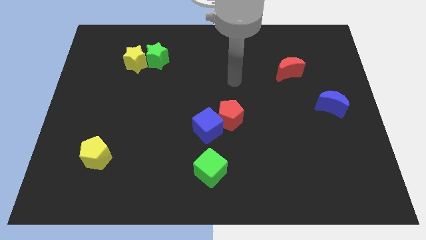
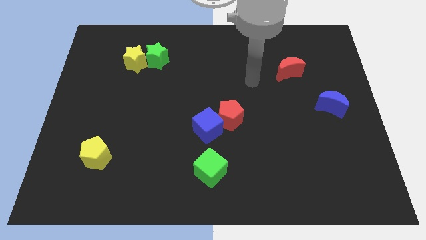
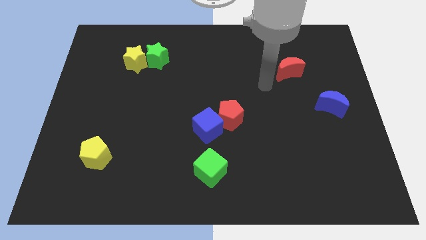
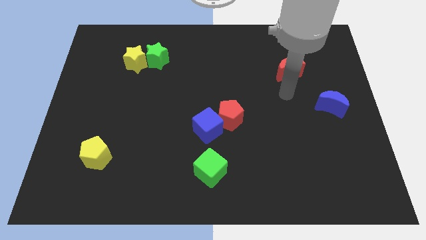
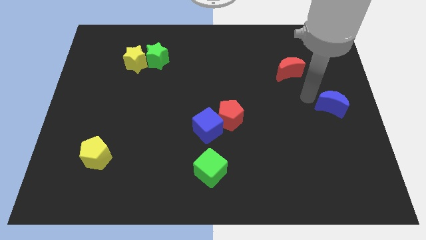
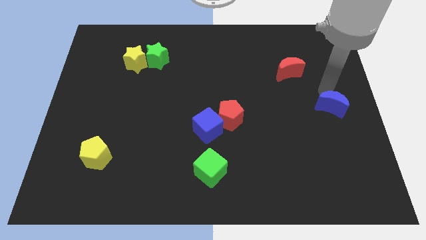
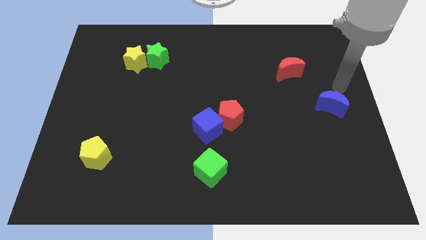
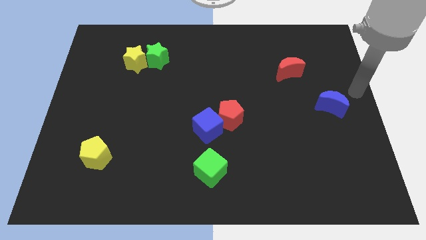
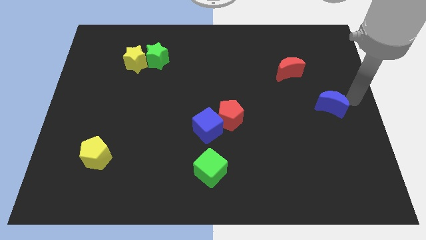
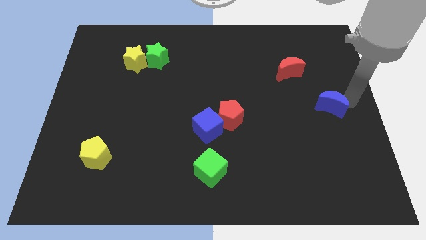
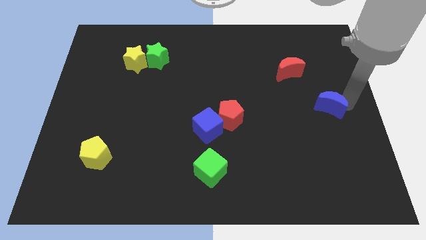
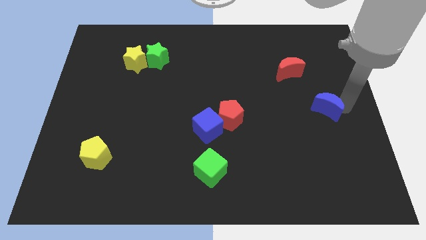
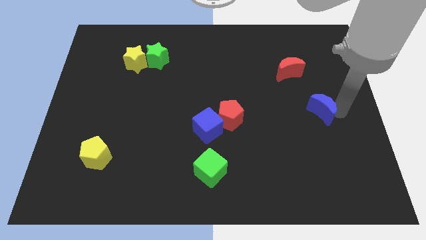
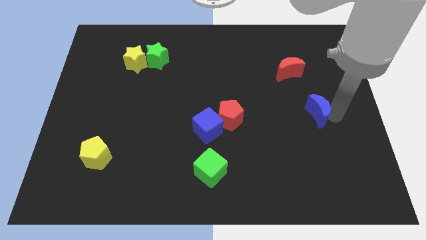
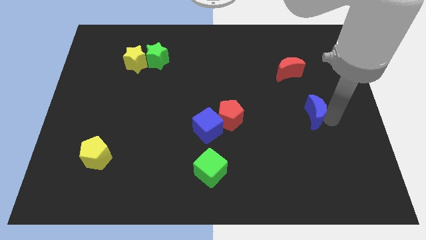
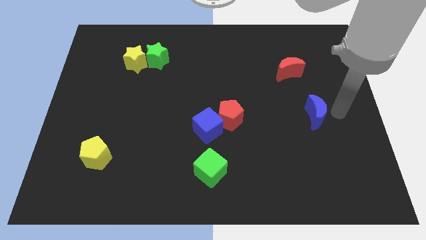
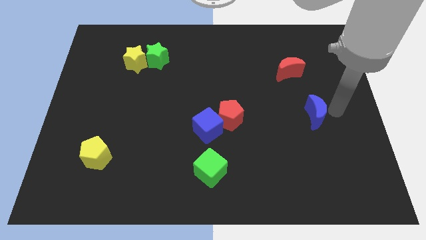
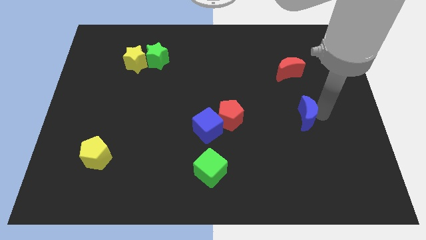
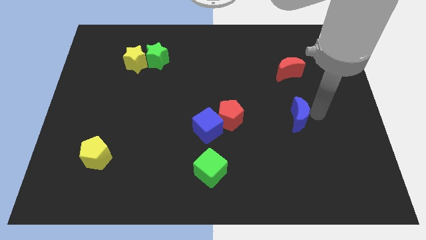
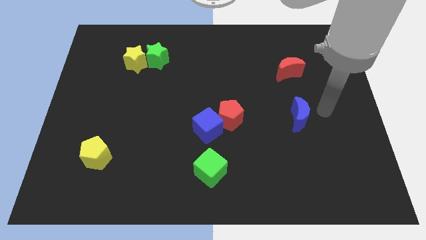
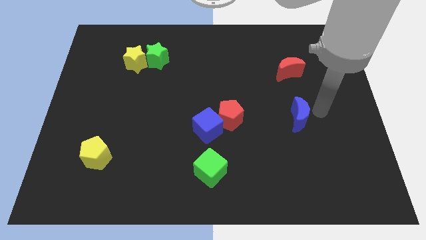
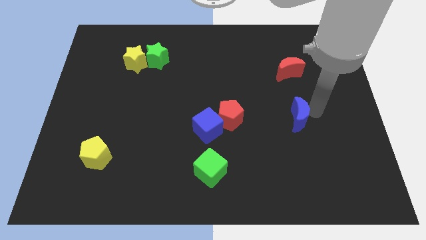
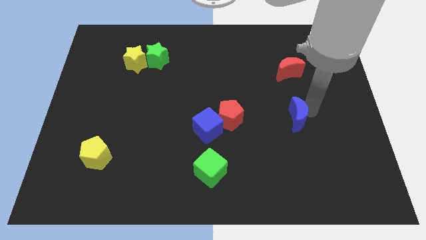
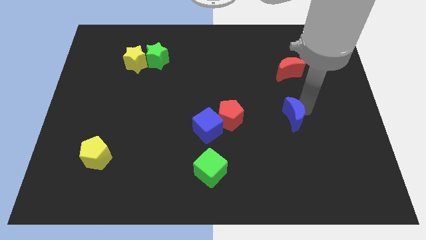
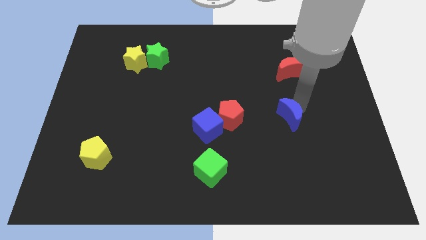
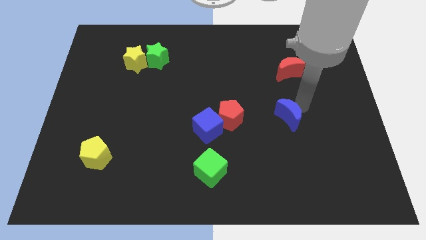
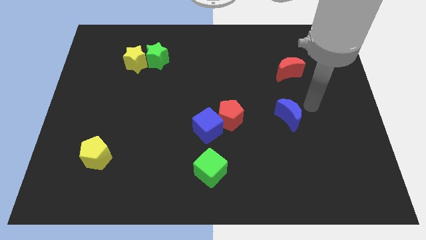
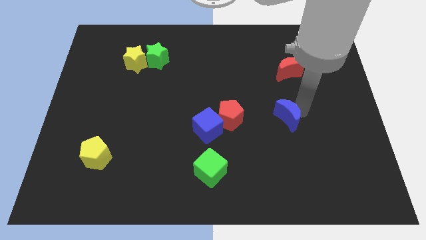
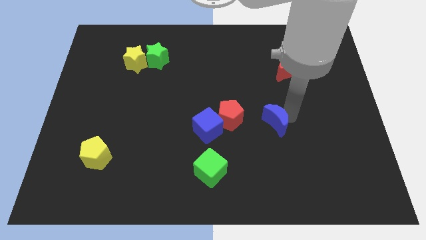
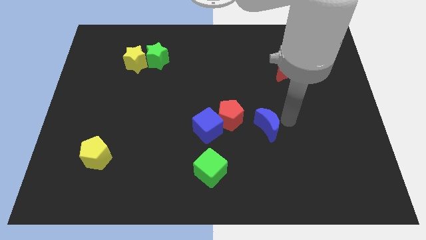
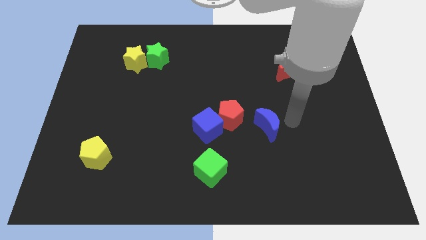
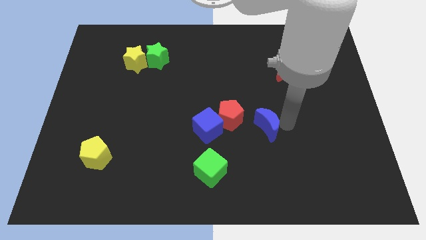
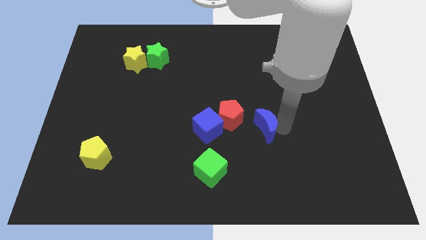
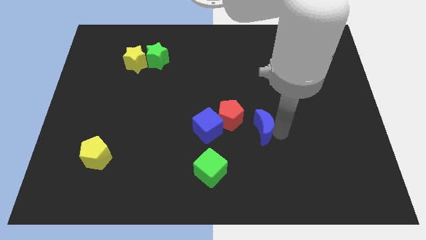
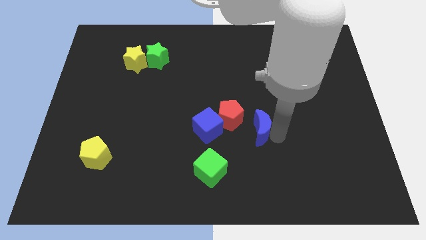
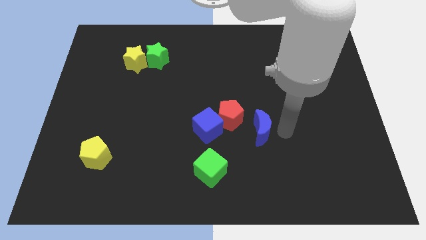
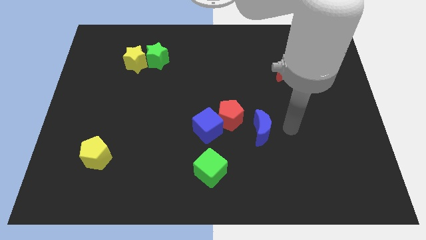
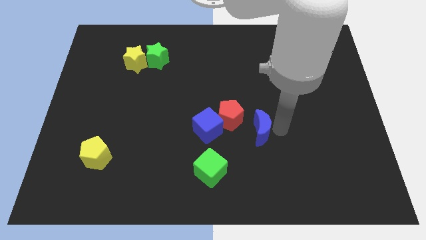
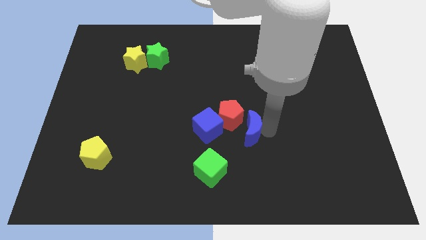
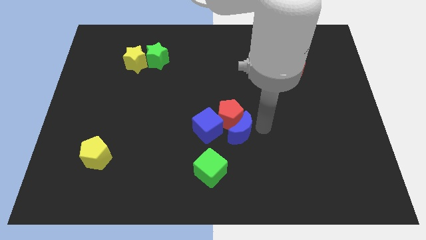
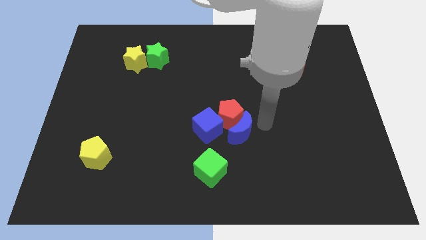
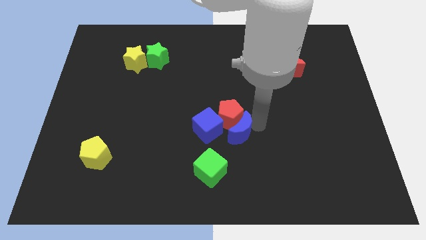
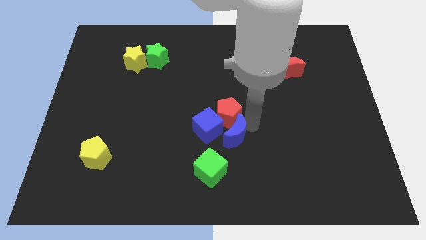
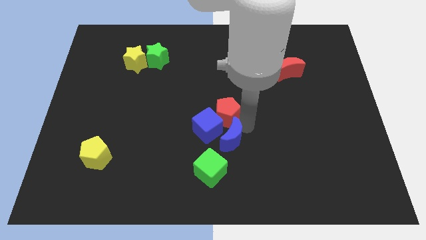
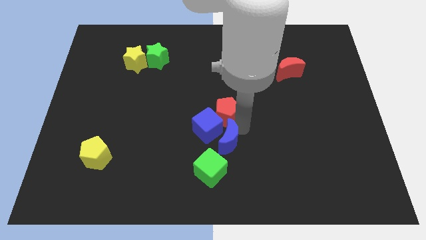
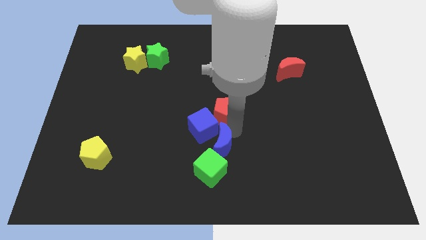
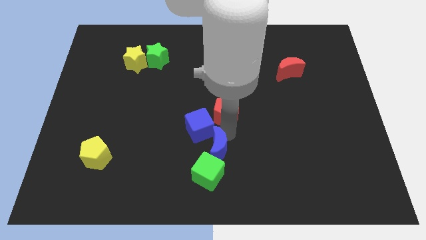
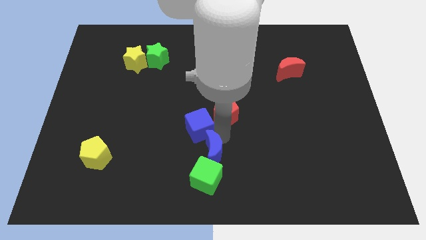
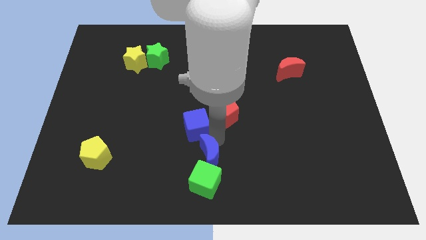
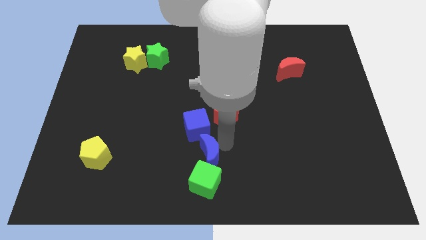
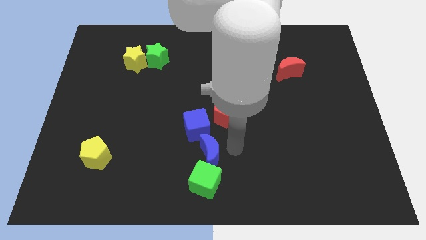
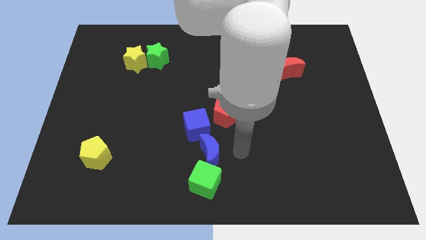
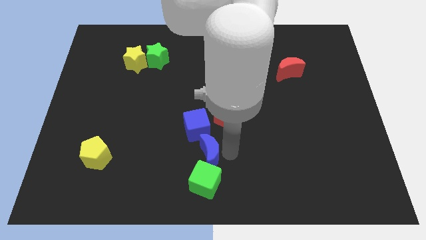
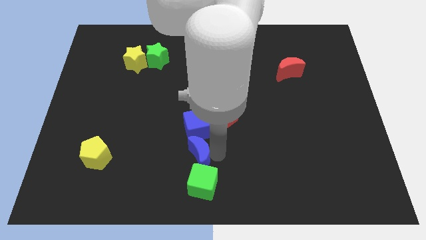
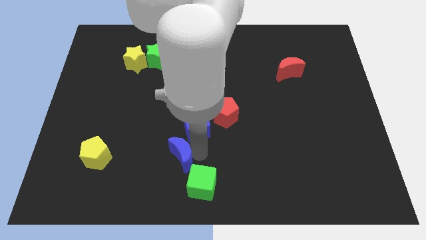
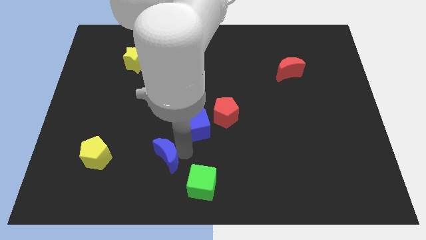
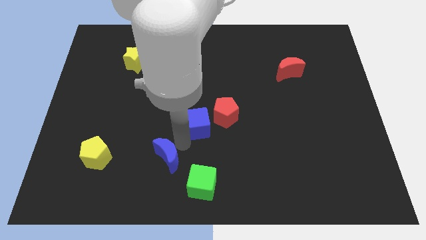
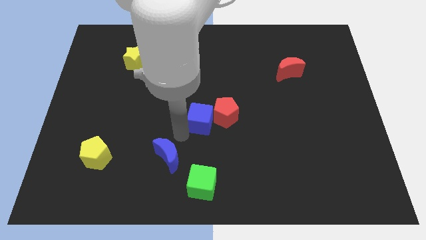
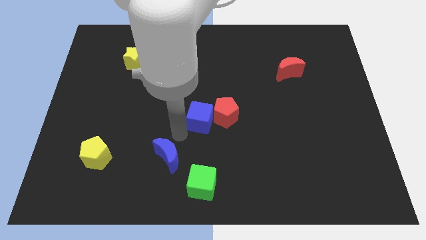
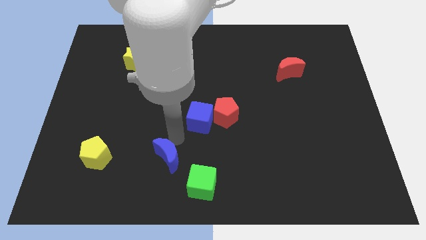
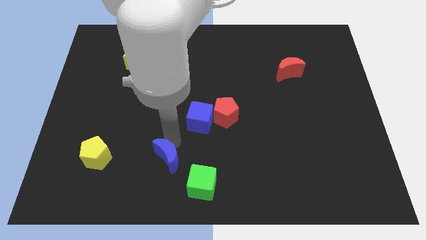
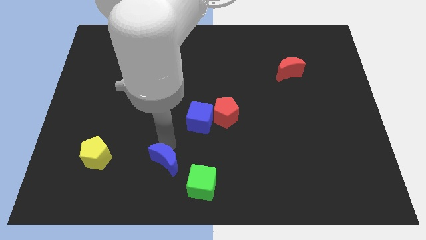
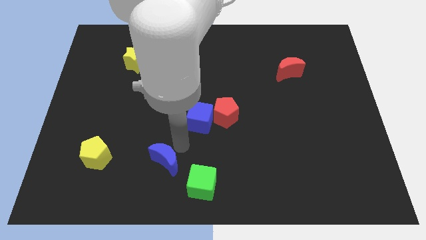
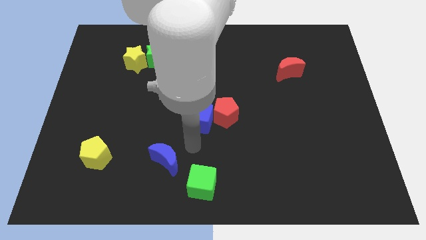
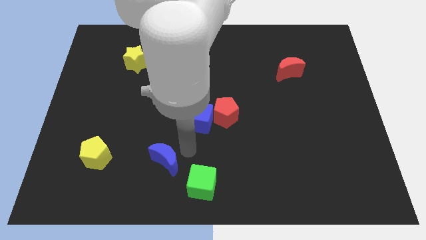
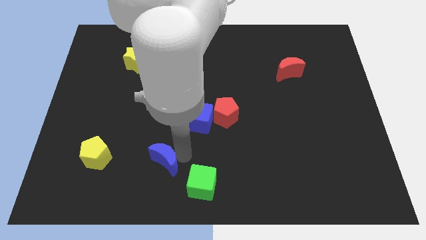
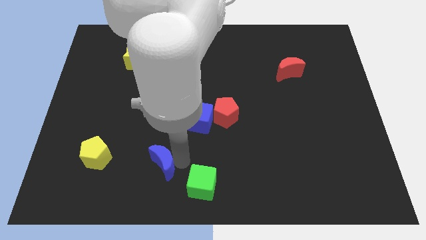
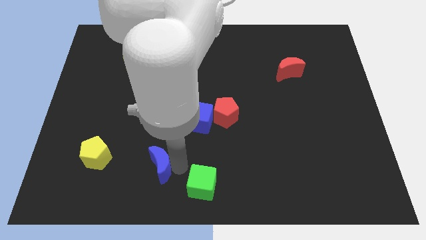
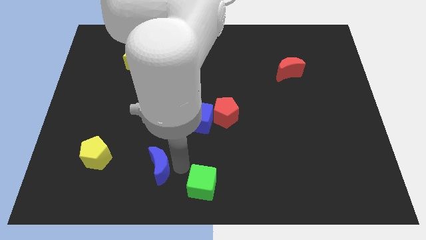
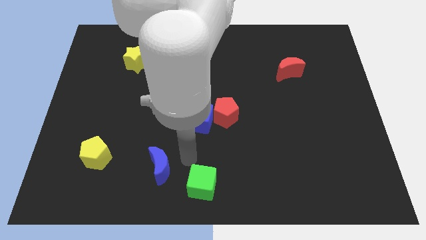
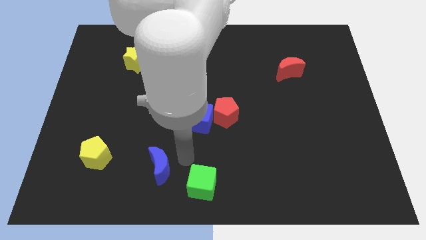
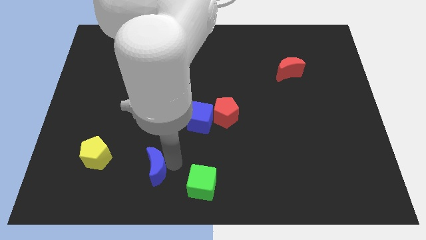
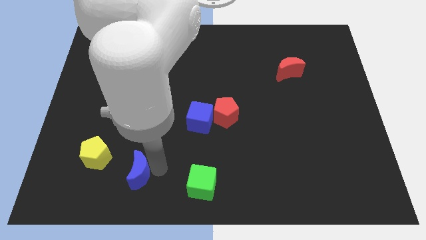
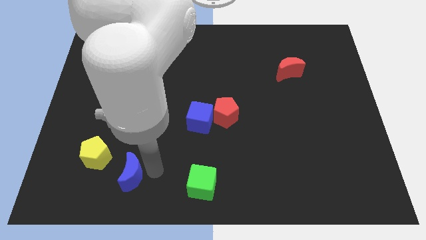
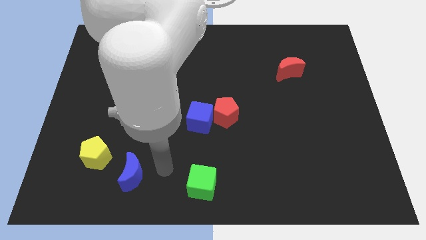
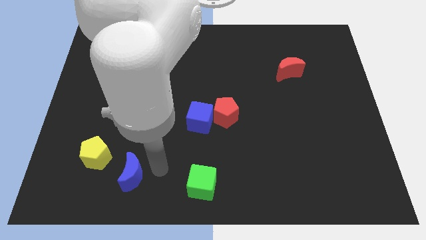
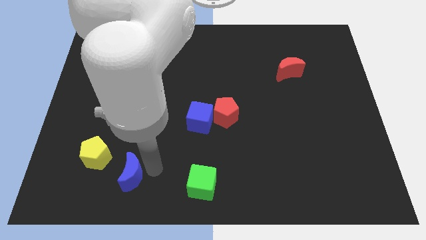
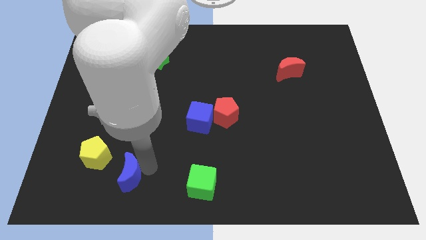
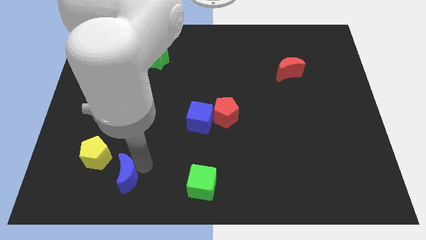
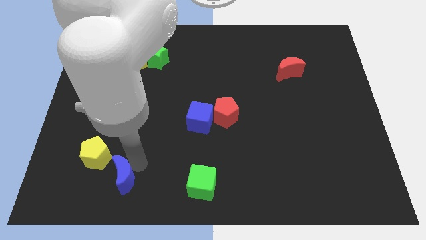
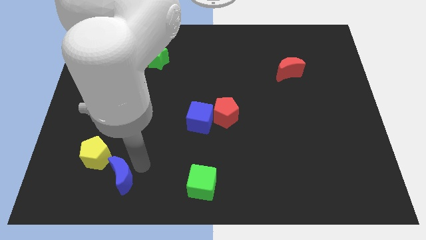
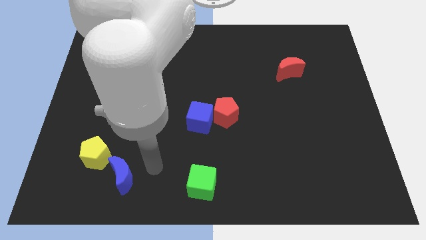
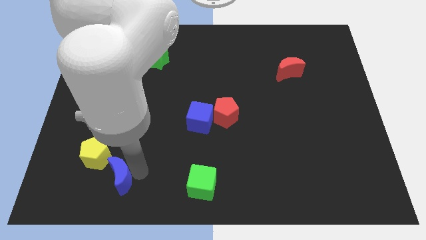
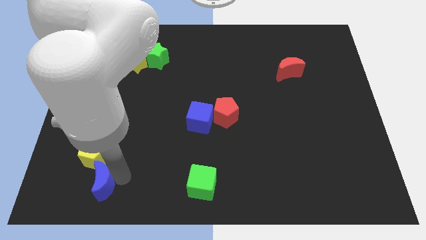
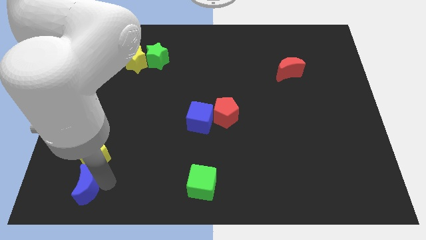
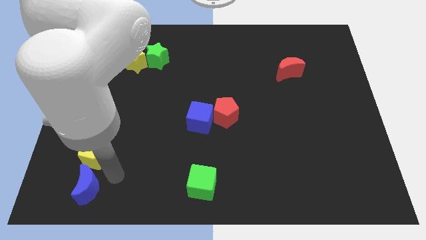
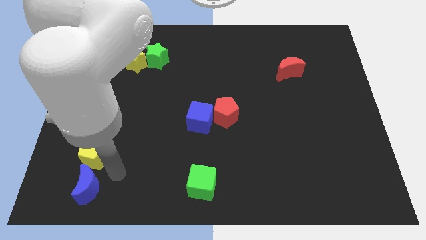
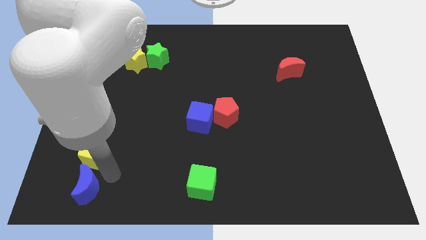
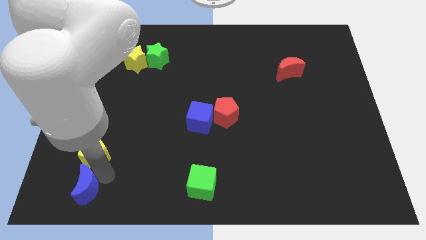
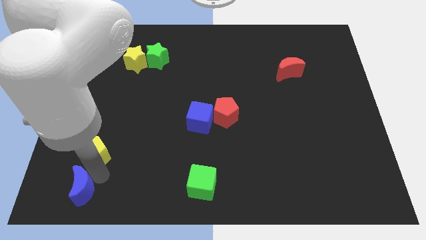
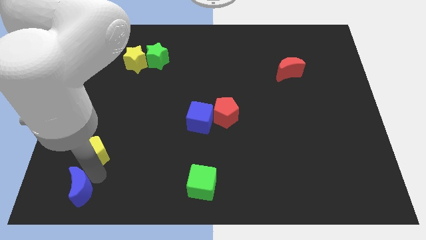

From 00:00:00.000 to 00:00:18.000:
put the blue moon to the bottom left of the board
